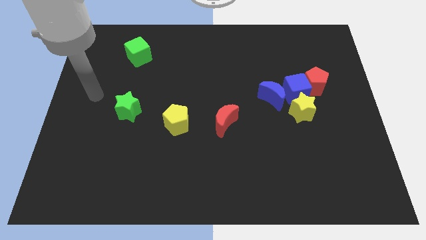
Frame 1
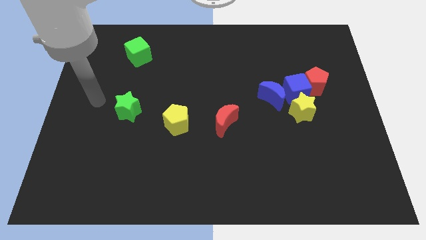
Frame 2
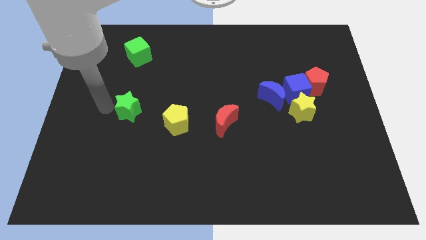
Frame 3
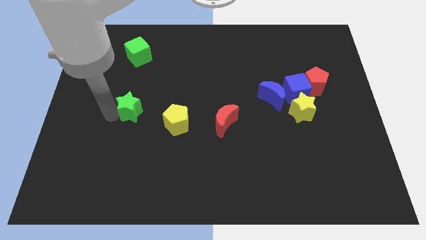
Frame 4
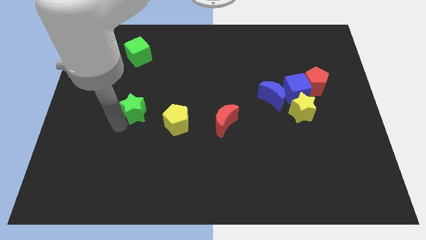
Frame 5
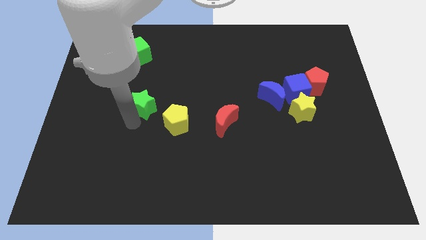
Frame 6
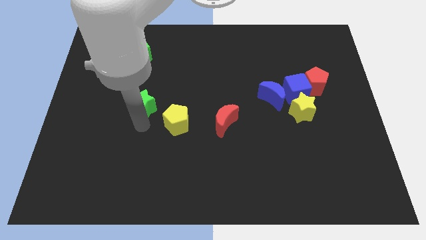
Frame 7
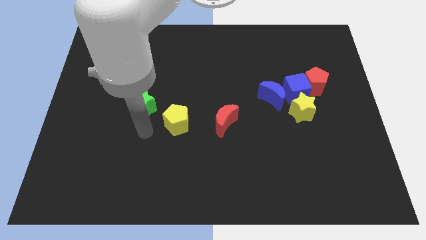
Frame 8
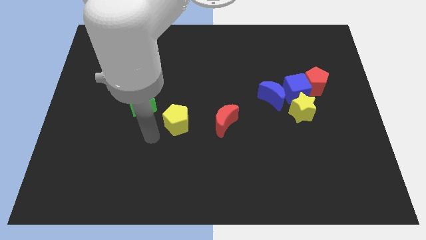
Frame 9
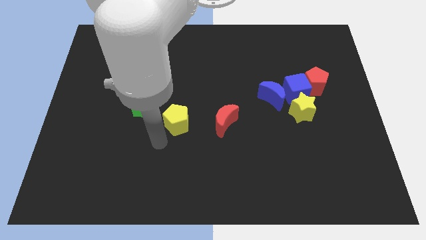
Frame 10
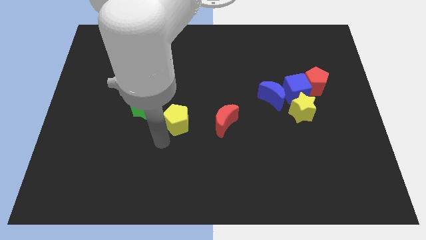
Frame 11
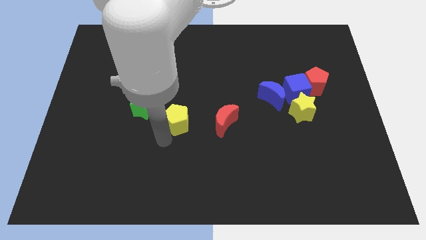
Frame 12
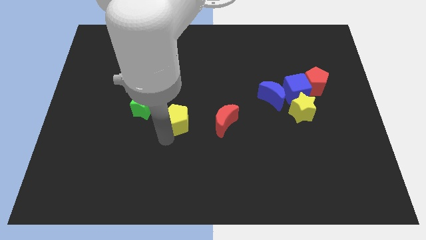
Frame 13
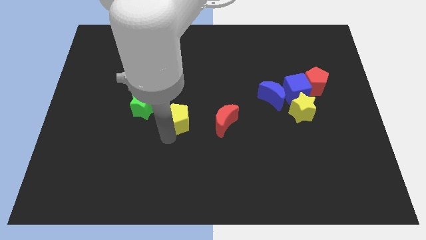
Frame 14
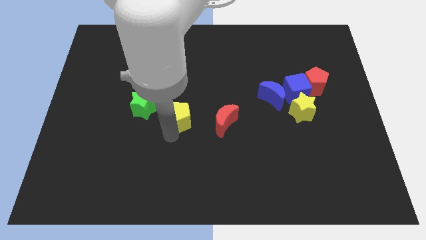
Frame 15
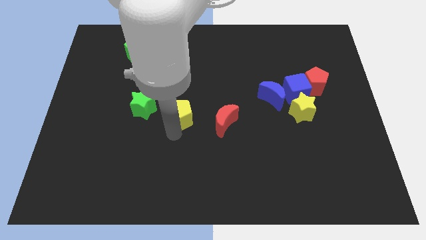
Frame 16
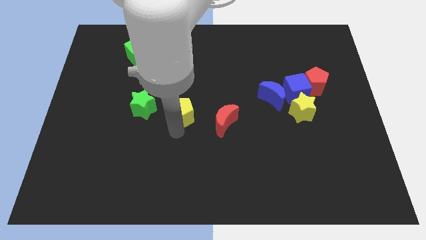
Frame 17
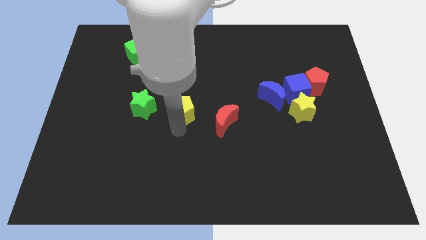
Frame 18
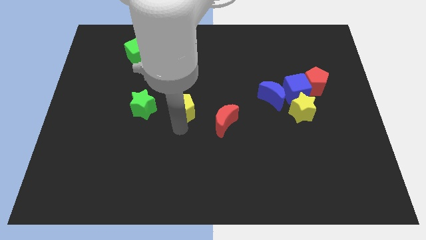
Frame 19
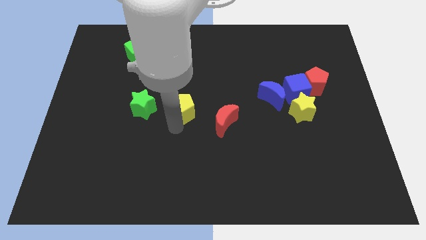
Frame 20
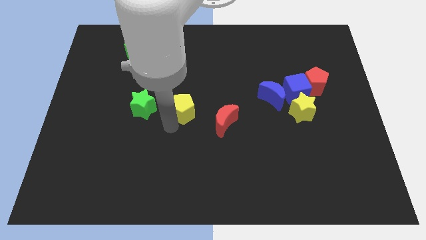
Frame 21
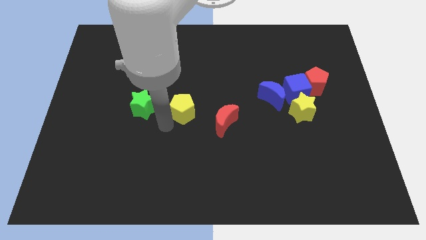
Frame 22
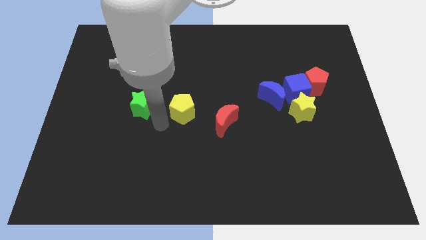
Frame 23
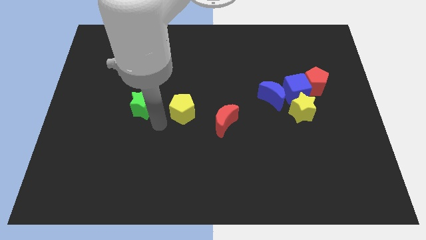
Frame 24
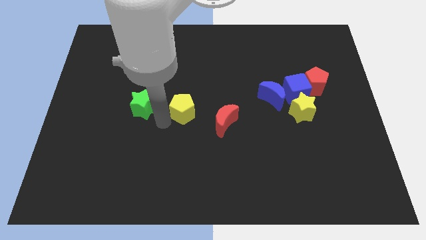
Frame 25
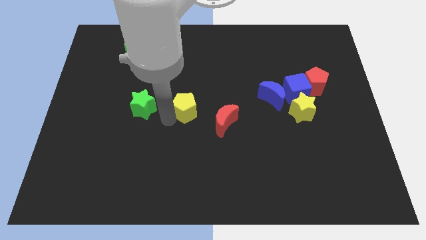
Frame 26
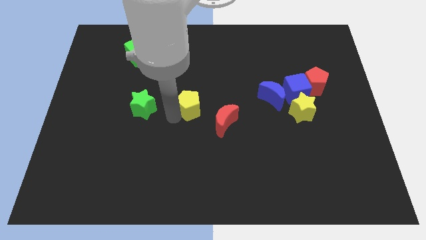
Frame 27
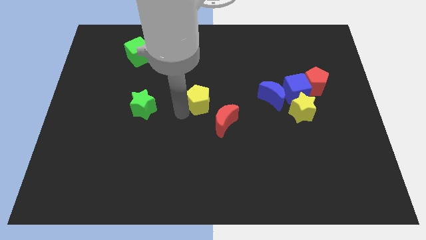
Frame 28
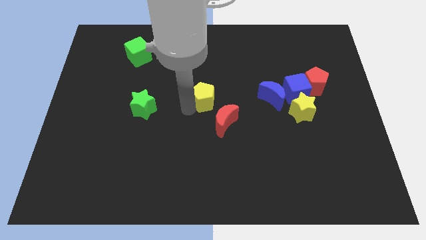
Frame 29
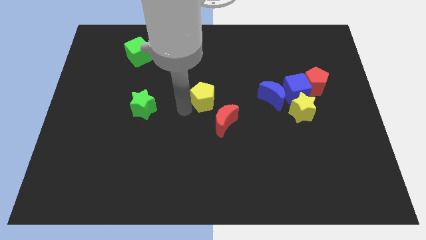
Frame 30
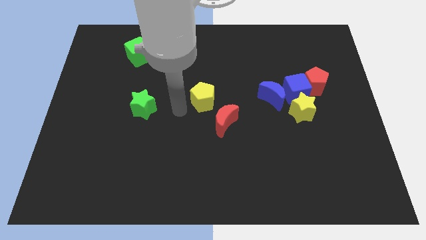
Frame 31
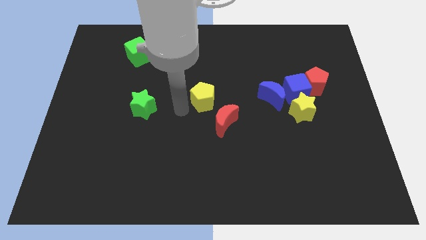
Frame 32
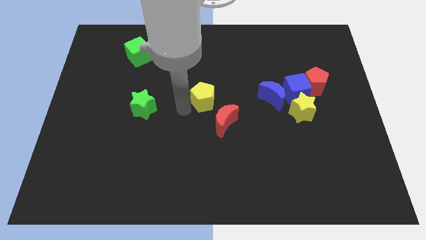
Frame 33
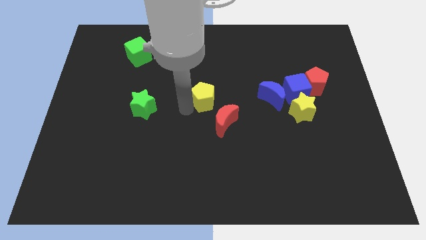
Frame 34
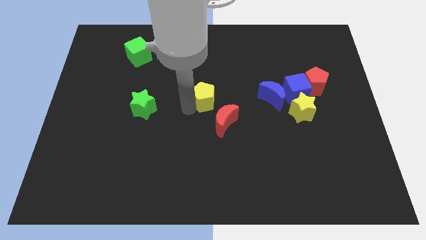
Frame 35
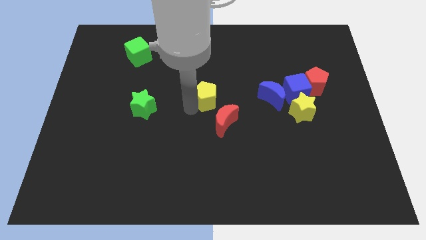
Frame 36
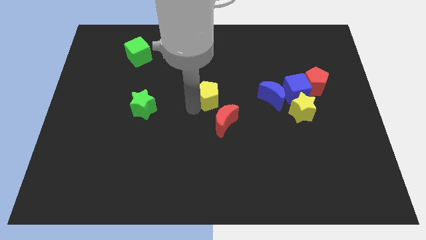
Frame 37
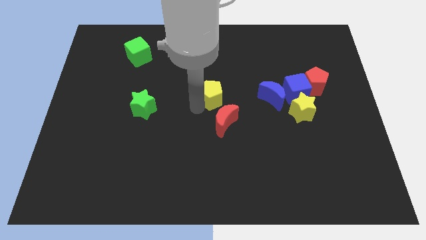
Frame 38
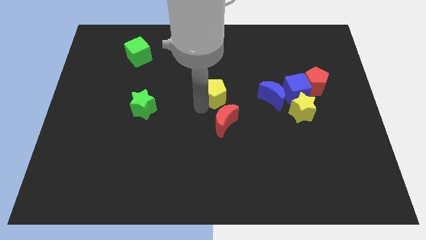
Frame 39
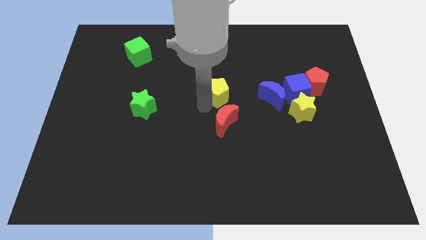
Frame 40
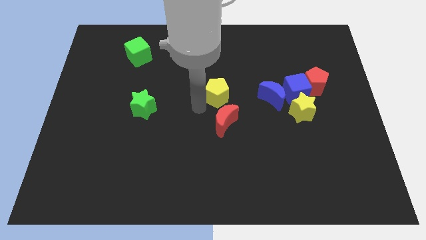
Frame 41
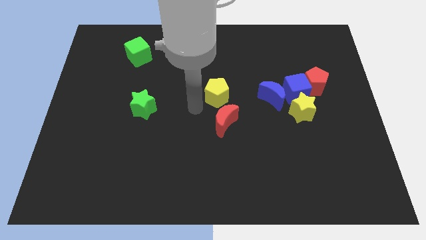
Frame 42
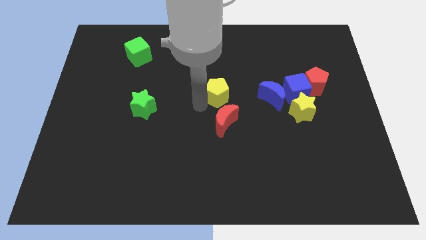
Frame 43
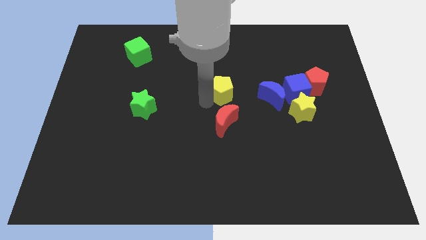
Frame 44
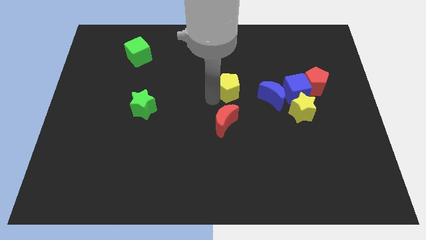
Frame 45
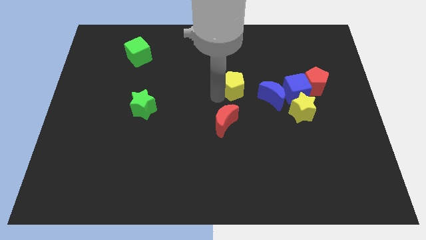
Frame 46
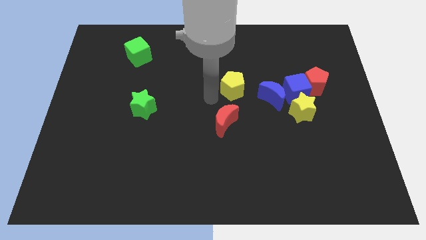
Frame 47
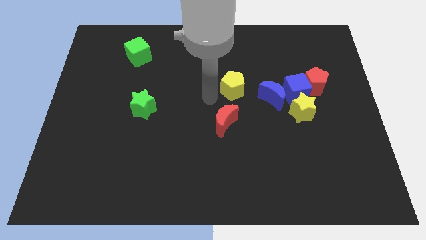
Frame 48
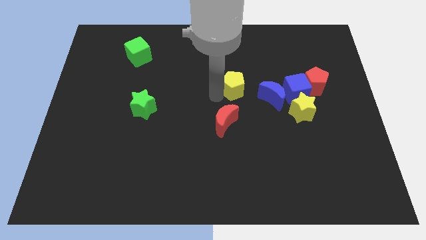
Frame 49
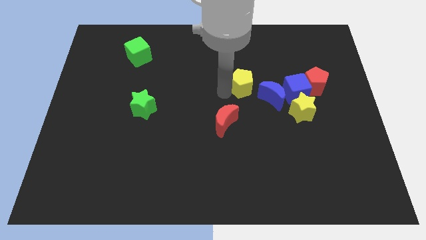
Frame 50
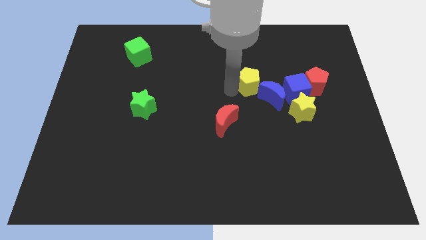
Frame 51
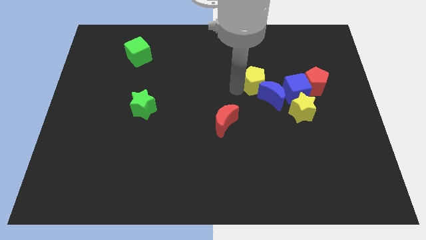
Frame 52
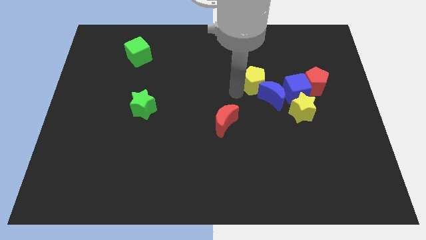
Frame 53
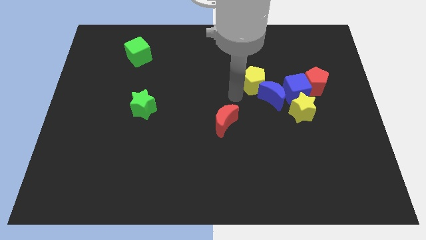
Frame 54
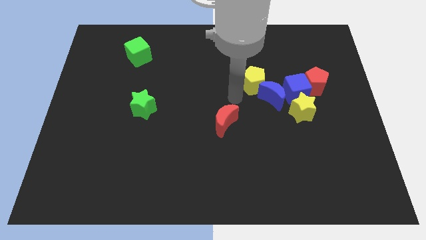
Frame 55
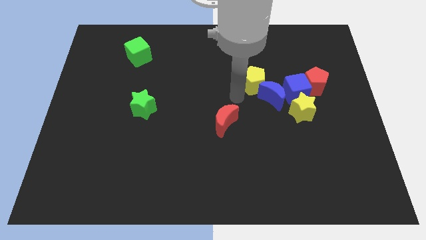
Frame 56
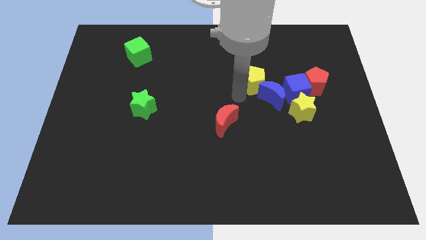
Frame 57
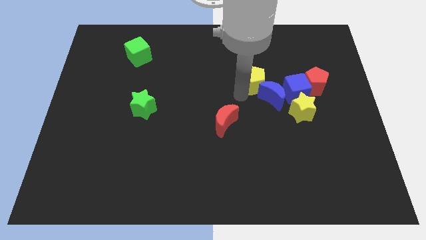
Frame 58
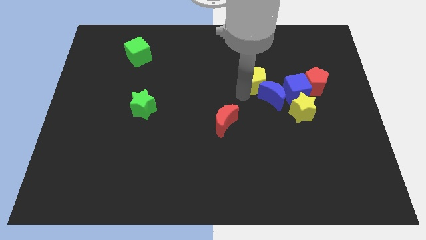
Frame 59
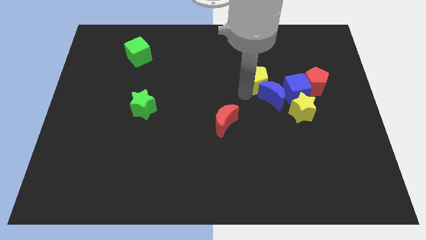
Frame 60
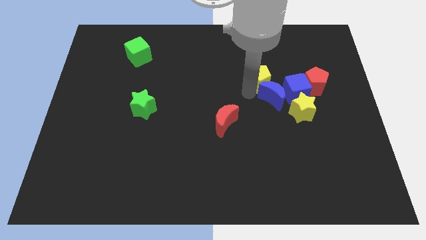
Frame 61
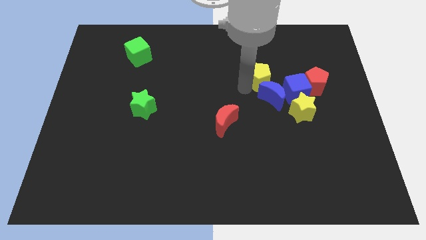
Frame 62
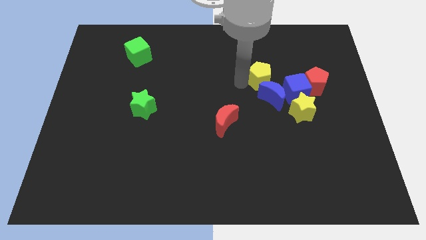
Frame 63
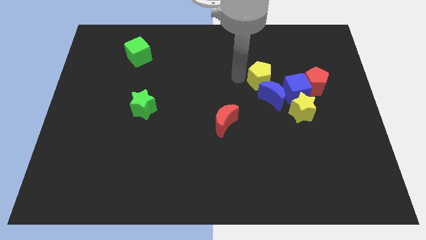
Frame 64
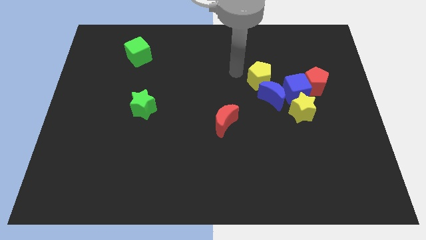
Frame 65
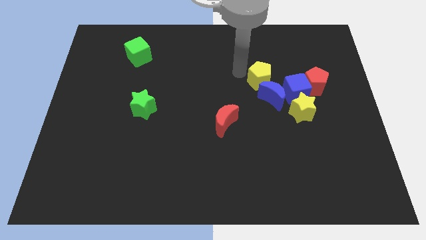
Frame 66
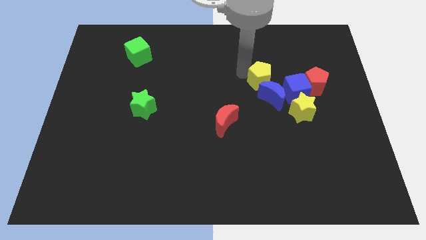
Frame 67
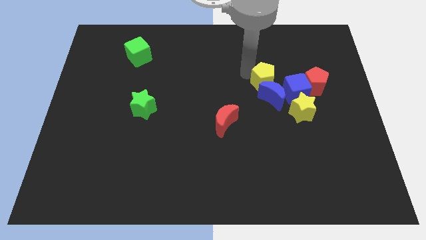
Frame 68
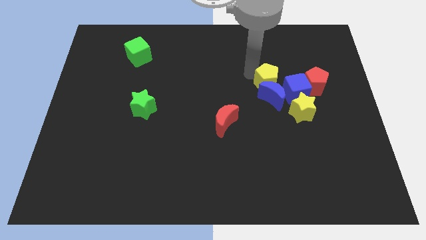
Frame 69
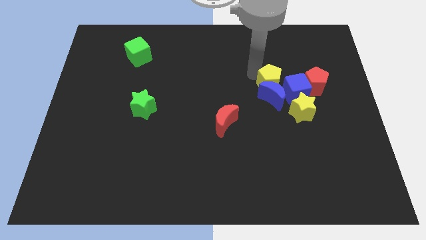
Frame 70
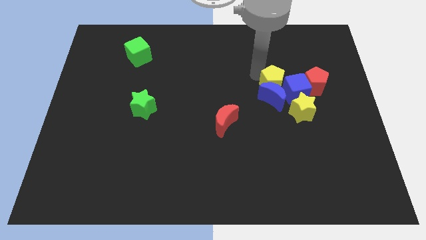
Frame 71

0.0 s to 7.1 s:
slide the yellow pentagon next to the blue cube
